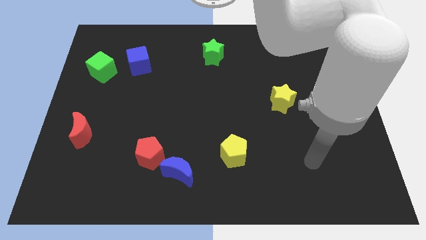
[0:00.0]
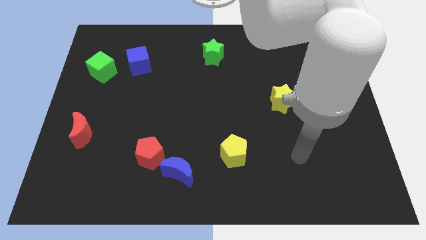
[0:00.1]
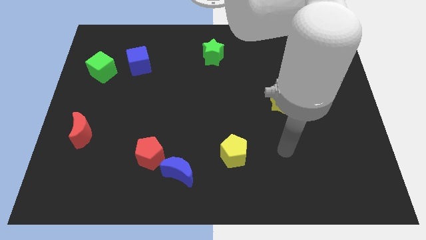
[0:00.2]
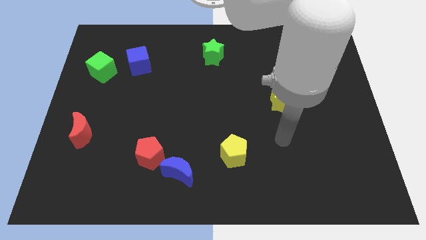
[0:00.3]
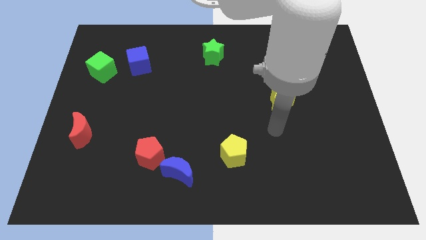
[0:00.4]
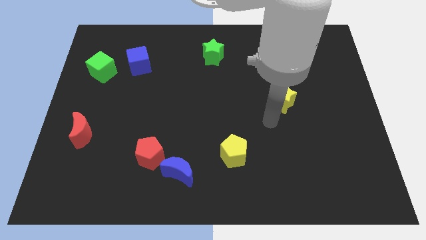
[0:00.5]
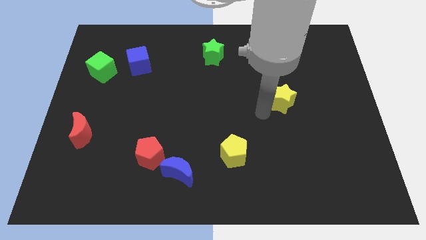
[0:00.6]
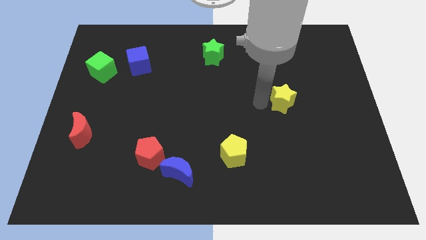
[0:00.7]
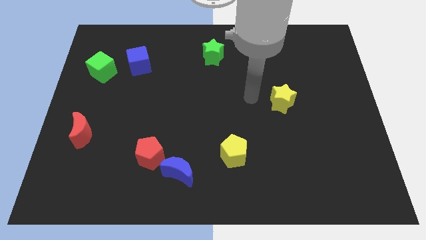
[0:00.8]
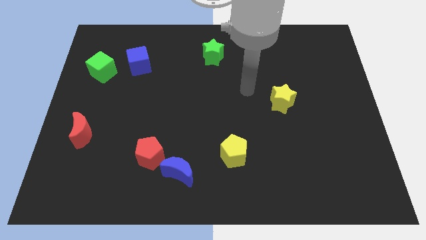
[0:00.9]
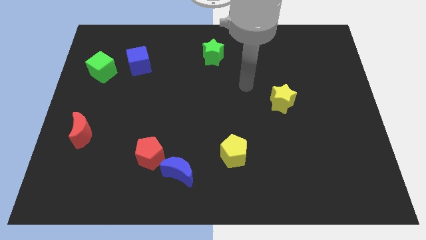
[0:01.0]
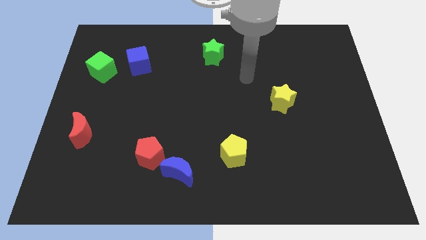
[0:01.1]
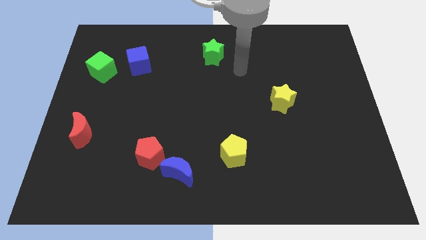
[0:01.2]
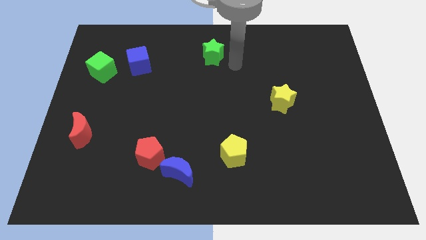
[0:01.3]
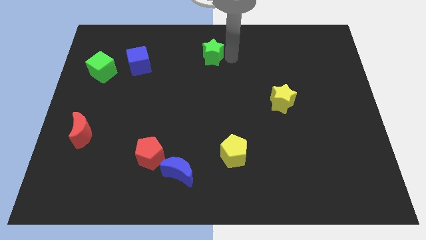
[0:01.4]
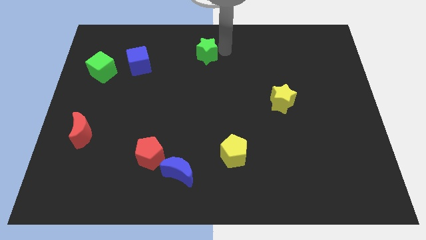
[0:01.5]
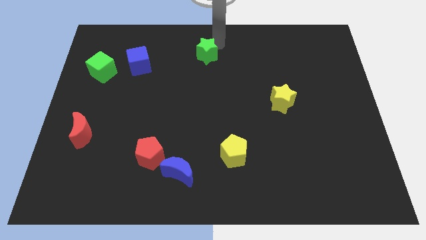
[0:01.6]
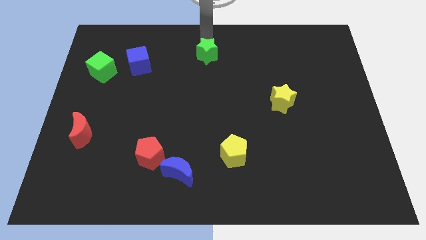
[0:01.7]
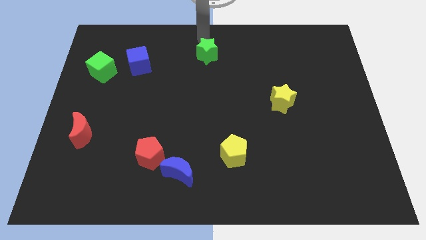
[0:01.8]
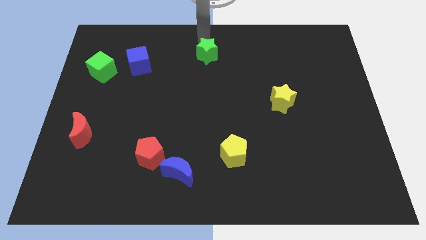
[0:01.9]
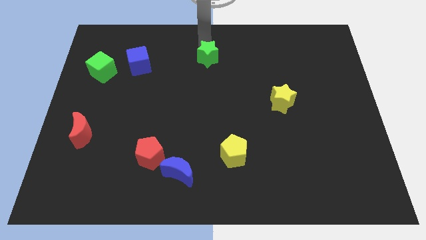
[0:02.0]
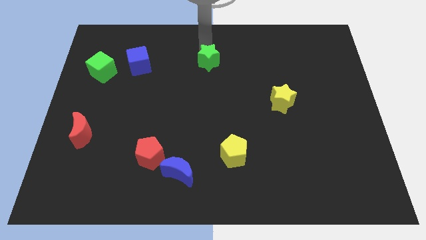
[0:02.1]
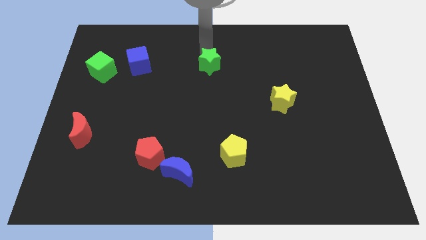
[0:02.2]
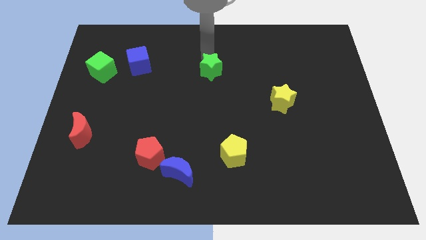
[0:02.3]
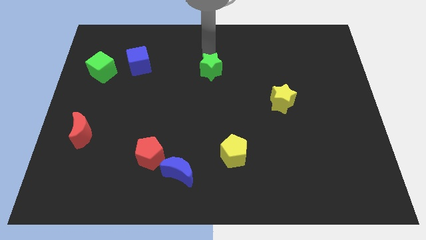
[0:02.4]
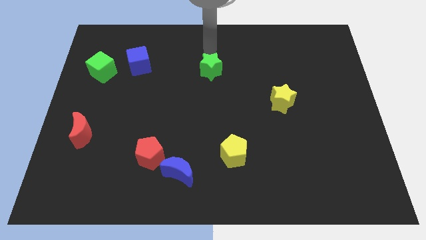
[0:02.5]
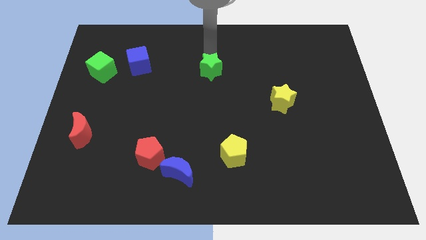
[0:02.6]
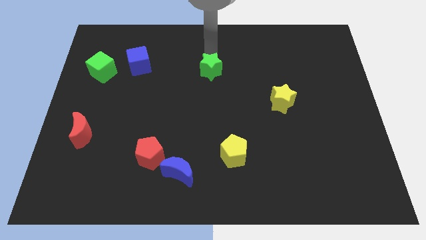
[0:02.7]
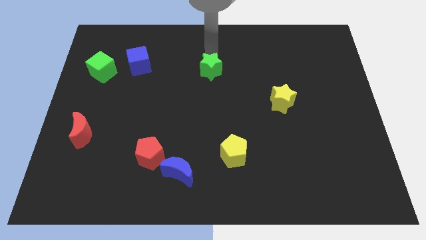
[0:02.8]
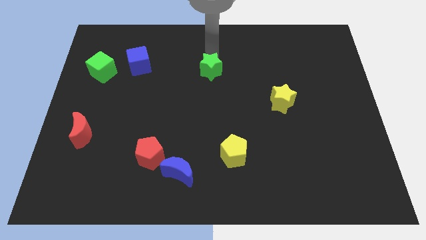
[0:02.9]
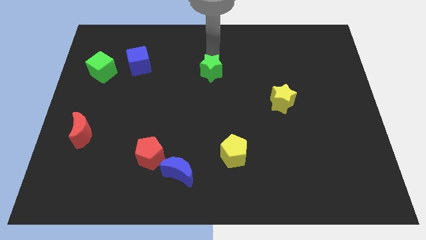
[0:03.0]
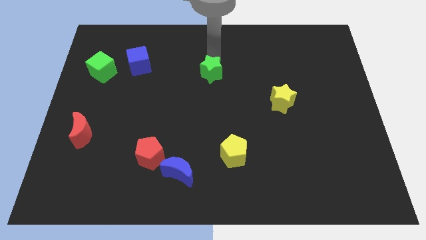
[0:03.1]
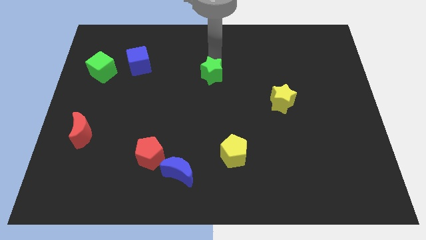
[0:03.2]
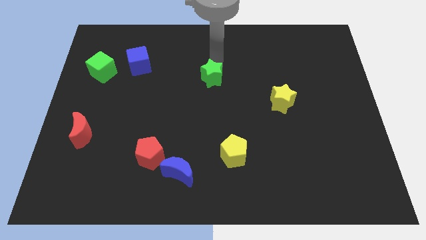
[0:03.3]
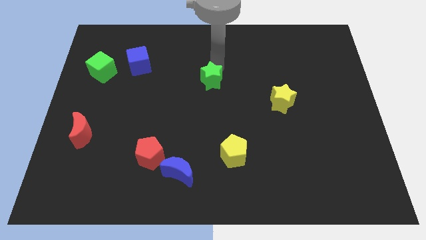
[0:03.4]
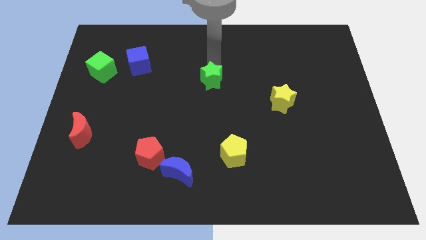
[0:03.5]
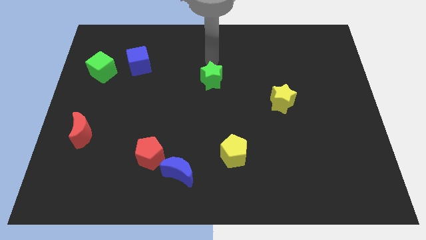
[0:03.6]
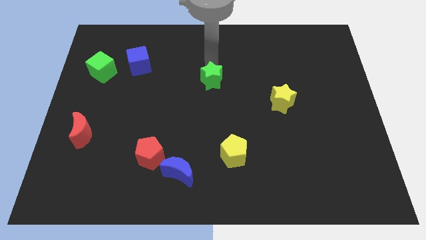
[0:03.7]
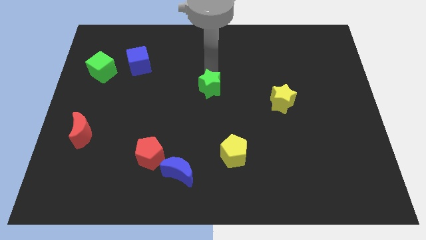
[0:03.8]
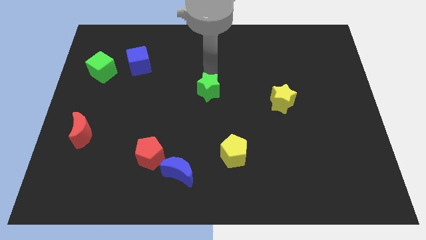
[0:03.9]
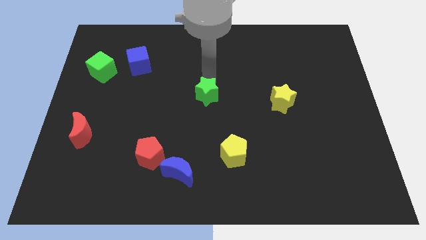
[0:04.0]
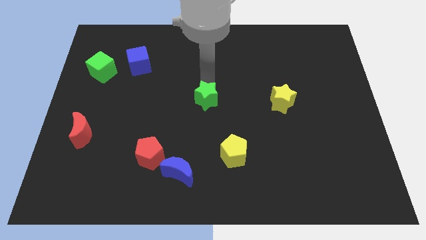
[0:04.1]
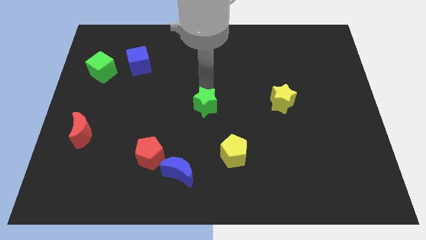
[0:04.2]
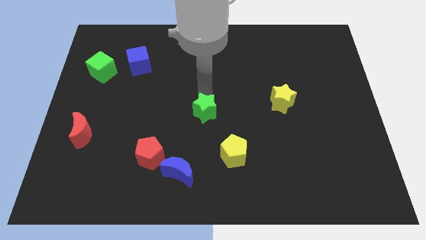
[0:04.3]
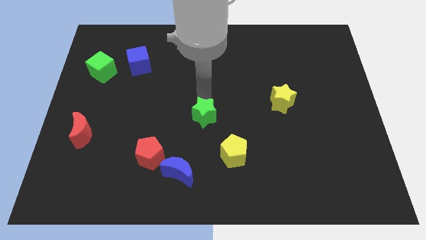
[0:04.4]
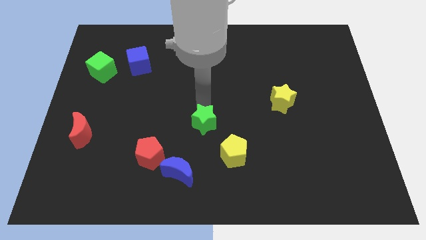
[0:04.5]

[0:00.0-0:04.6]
slide the green star downwards

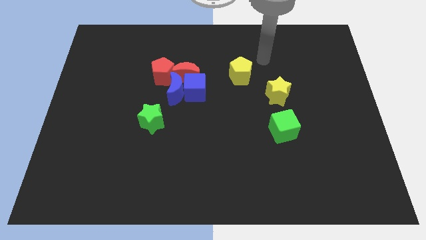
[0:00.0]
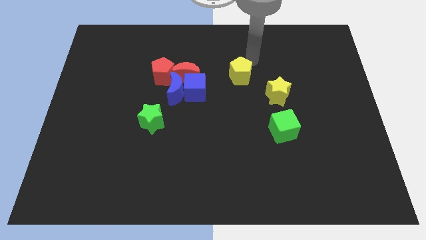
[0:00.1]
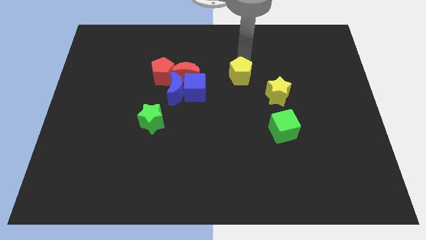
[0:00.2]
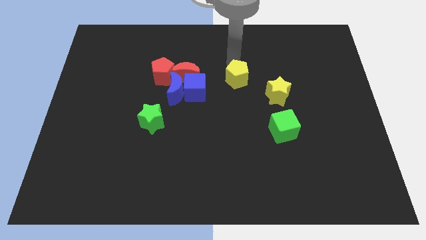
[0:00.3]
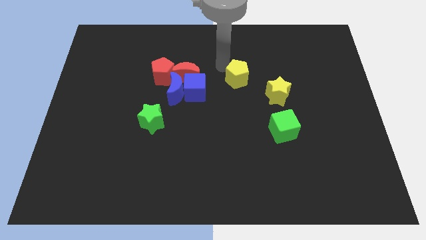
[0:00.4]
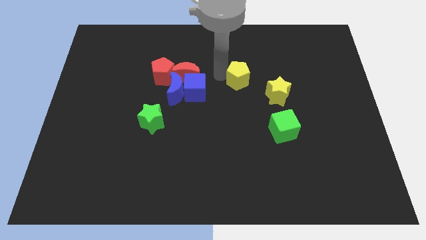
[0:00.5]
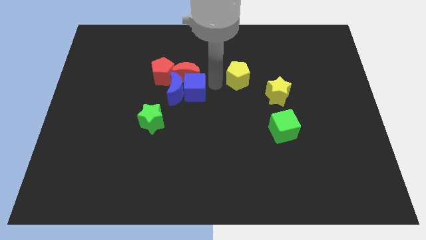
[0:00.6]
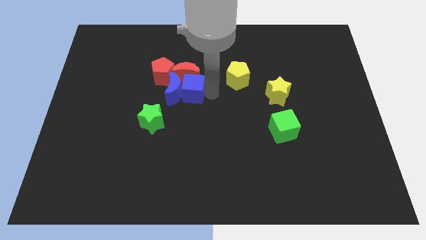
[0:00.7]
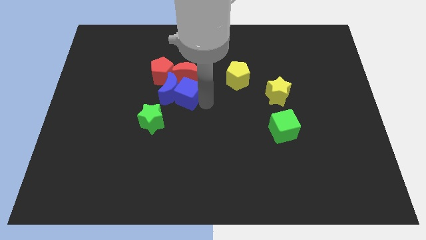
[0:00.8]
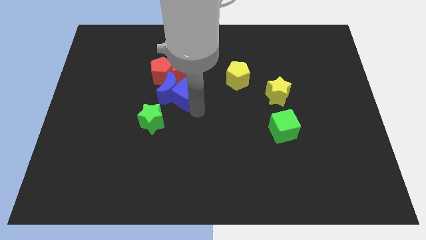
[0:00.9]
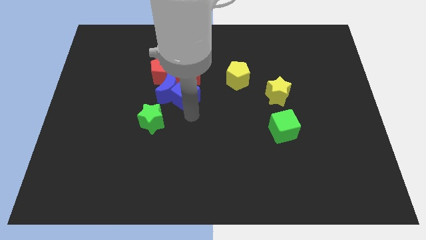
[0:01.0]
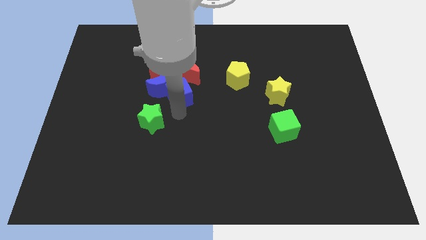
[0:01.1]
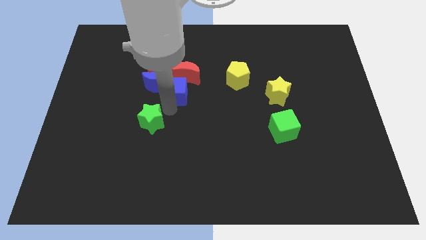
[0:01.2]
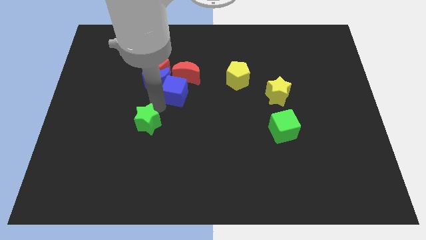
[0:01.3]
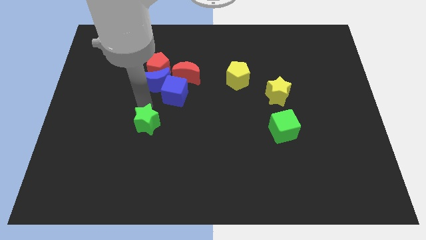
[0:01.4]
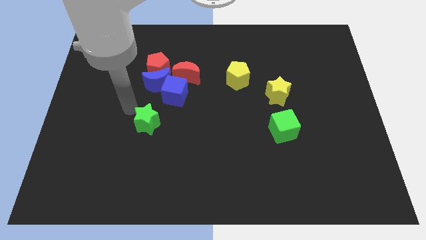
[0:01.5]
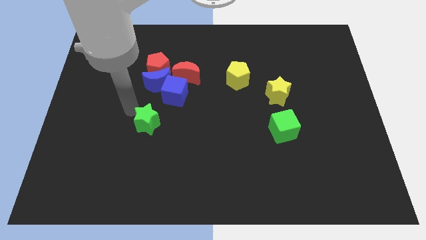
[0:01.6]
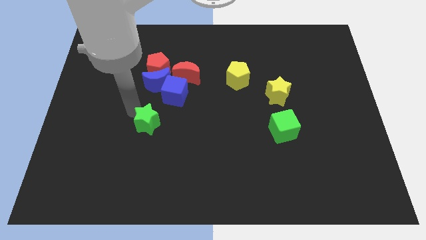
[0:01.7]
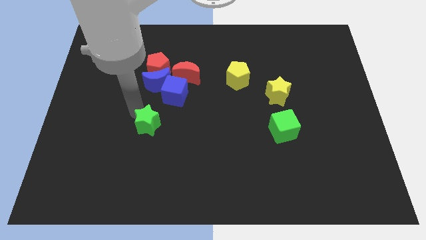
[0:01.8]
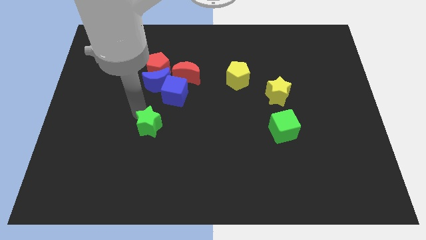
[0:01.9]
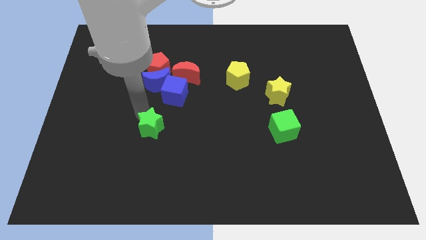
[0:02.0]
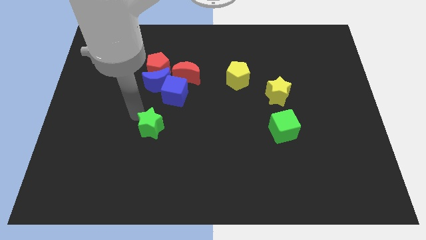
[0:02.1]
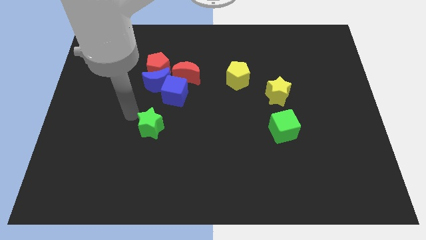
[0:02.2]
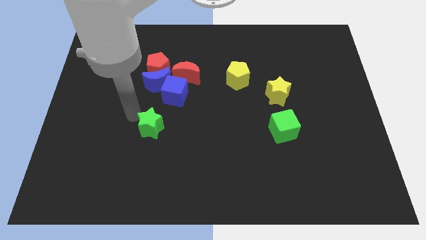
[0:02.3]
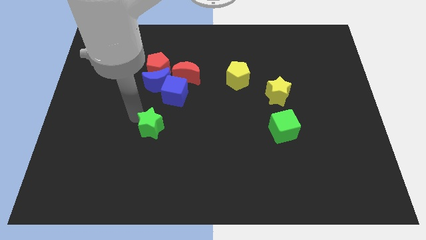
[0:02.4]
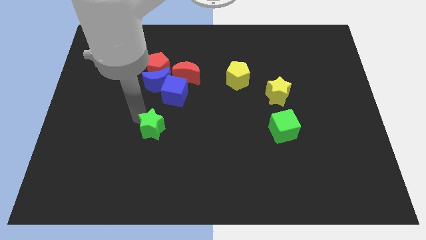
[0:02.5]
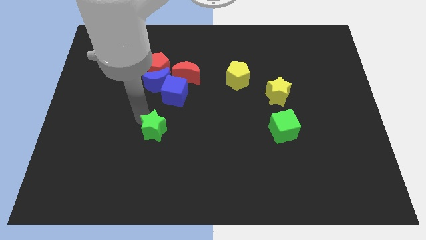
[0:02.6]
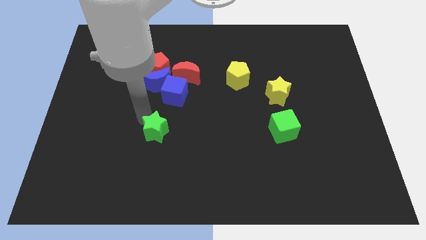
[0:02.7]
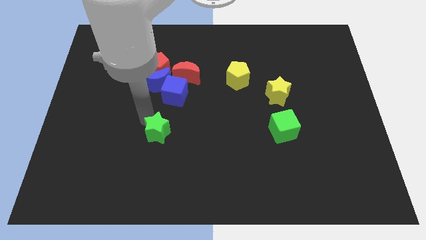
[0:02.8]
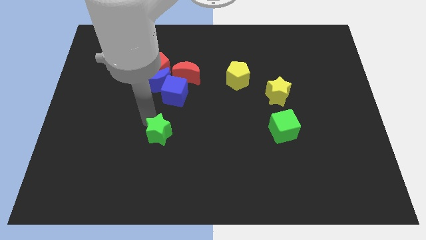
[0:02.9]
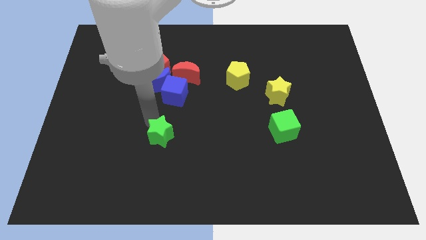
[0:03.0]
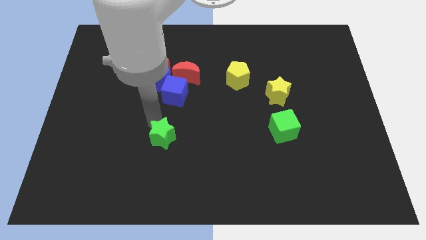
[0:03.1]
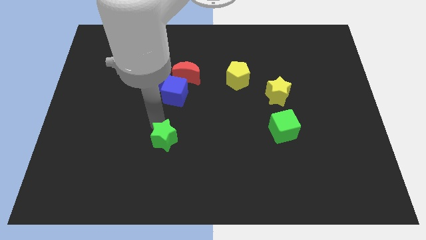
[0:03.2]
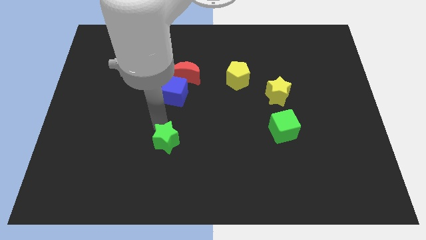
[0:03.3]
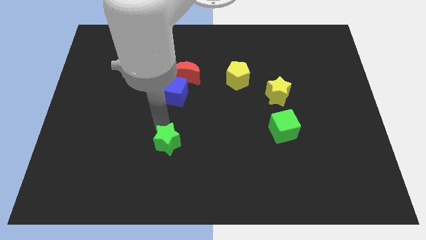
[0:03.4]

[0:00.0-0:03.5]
slide the green star down and right a bit

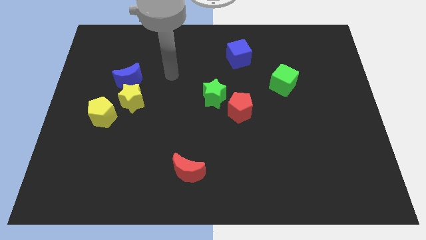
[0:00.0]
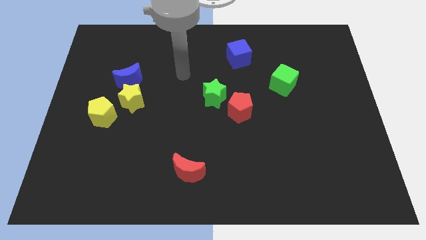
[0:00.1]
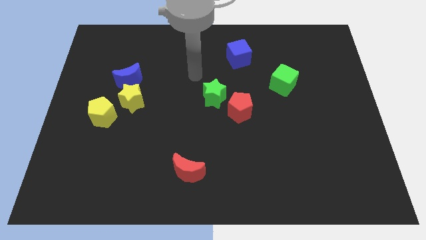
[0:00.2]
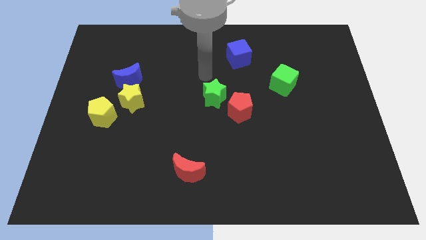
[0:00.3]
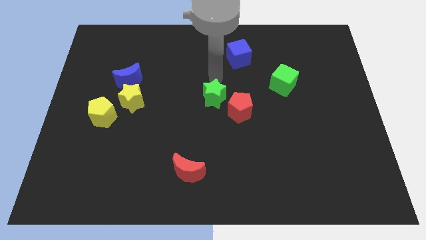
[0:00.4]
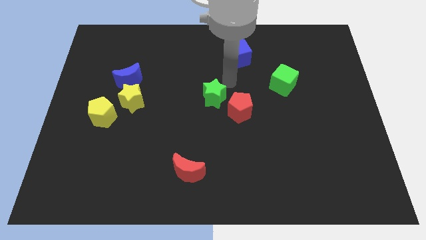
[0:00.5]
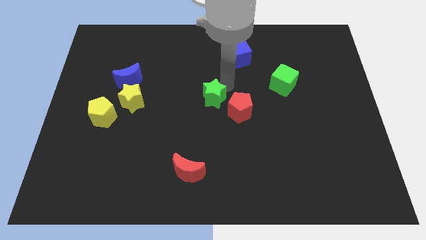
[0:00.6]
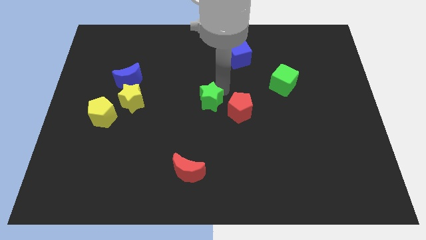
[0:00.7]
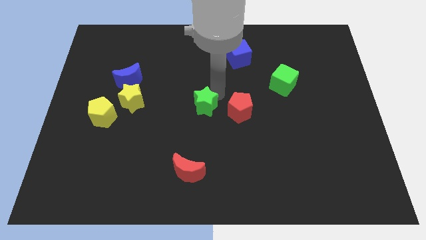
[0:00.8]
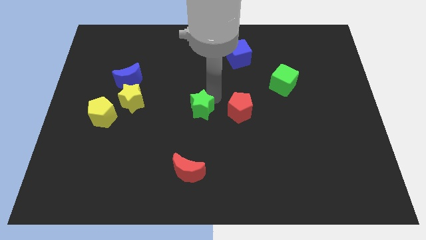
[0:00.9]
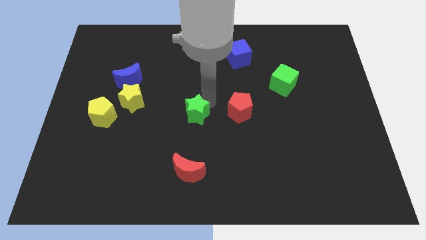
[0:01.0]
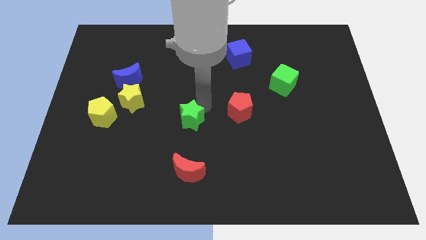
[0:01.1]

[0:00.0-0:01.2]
push the green star slightly down and to the left diagonally
